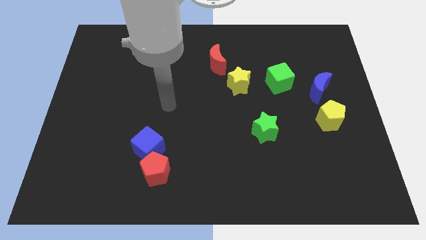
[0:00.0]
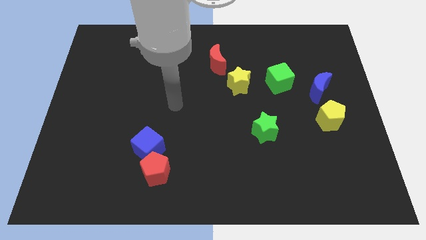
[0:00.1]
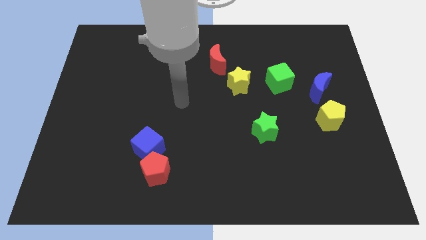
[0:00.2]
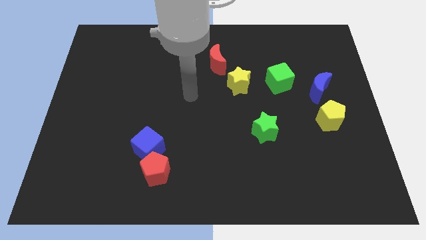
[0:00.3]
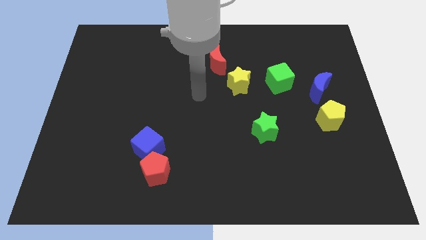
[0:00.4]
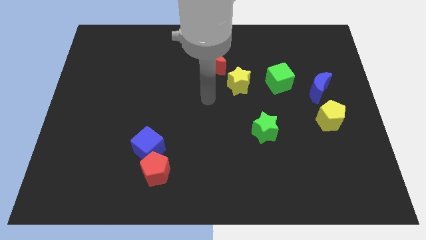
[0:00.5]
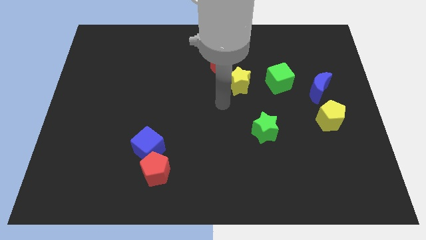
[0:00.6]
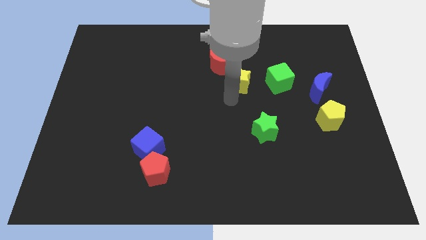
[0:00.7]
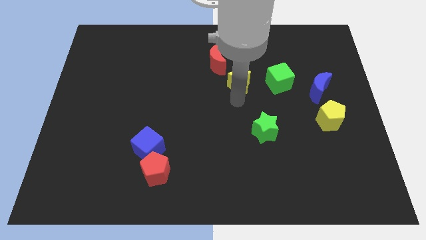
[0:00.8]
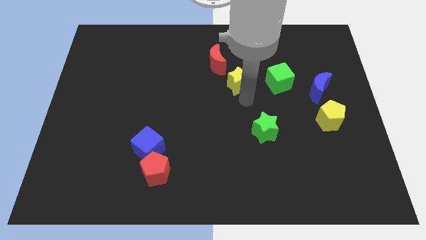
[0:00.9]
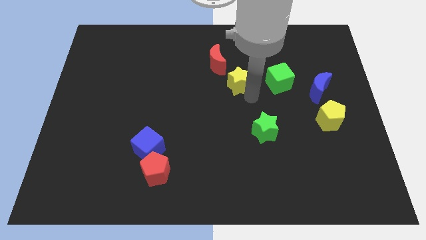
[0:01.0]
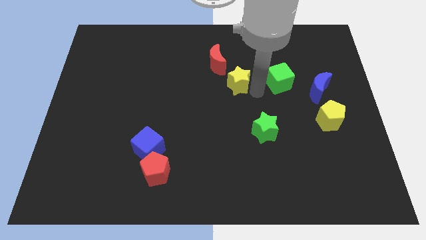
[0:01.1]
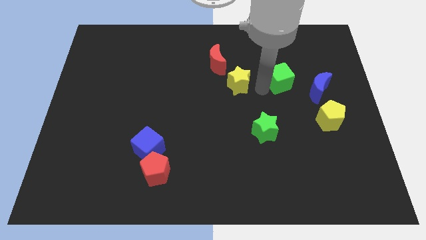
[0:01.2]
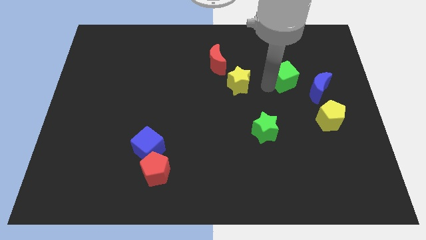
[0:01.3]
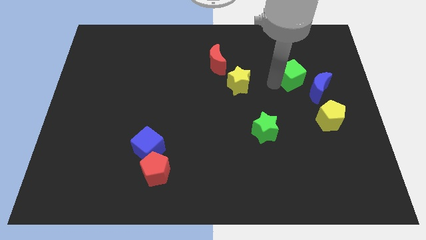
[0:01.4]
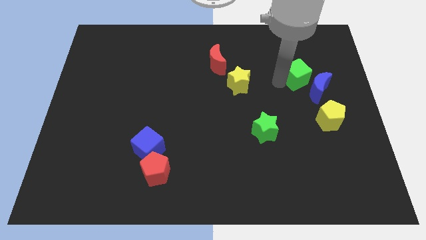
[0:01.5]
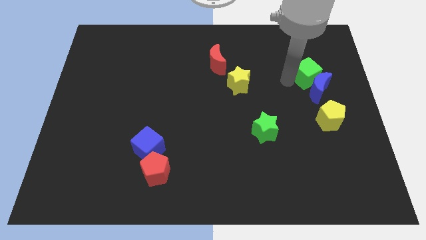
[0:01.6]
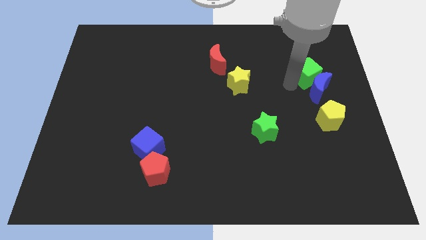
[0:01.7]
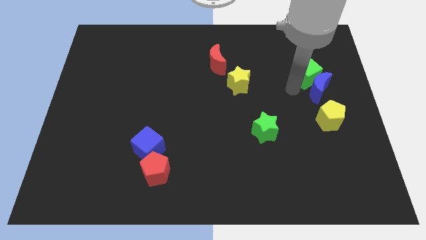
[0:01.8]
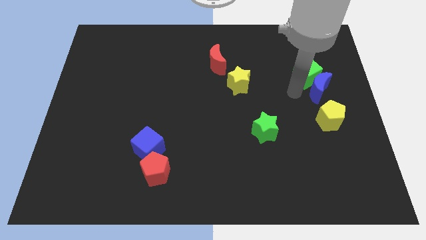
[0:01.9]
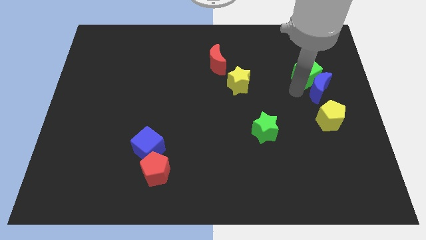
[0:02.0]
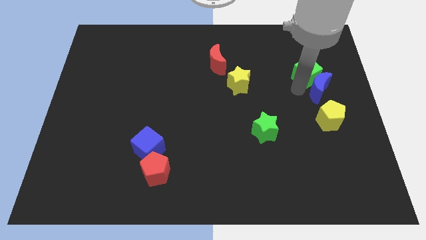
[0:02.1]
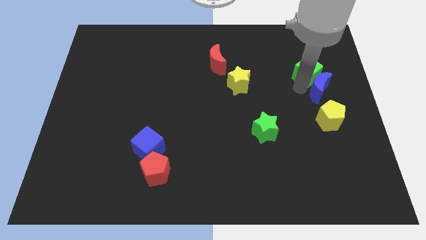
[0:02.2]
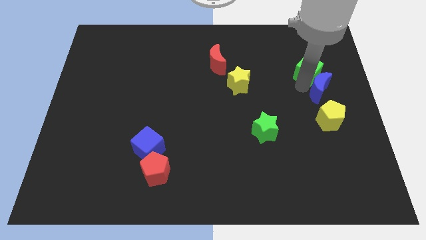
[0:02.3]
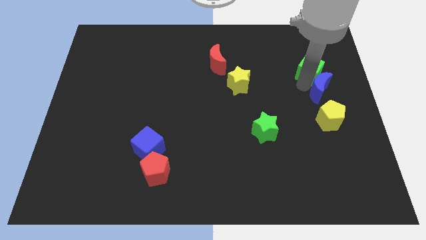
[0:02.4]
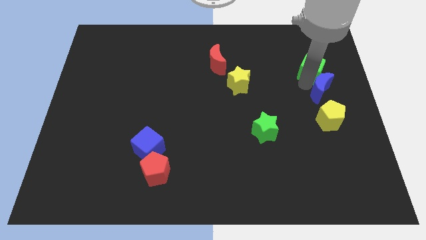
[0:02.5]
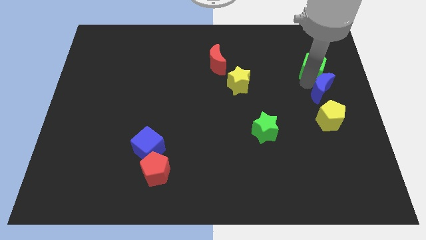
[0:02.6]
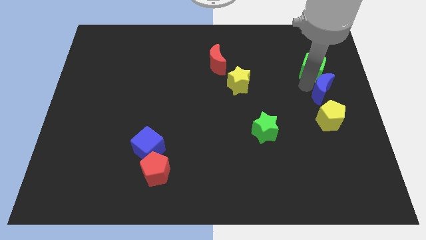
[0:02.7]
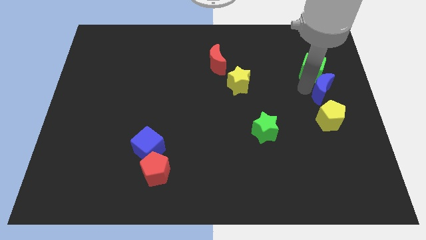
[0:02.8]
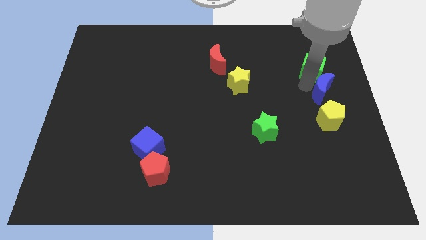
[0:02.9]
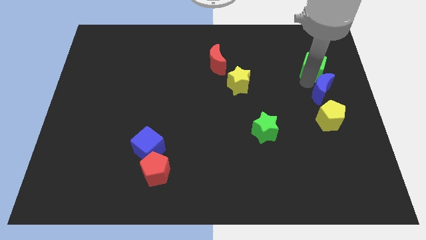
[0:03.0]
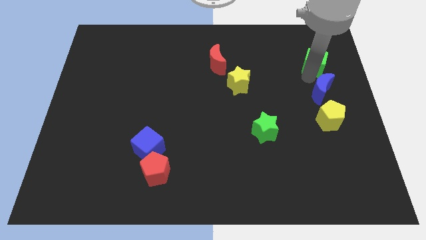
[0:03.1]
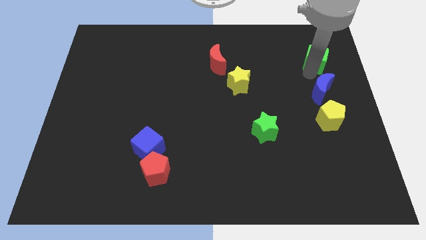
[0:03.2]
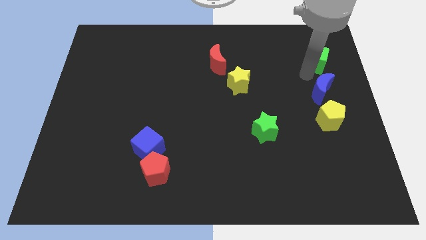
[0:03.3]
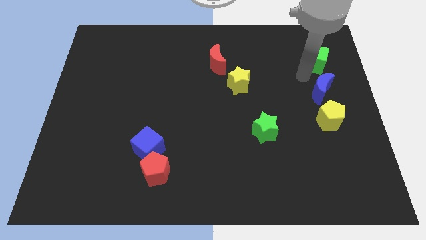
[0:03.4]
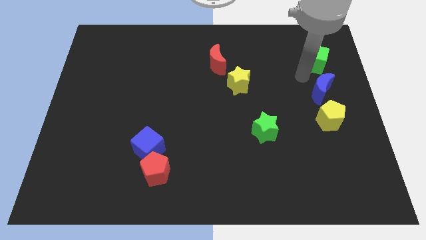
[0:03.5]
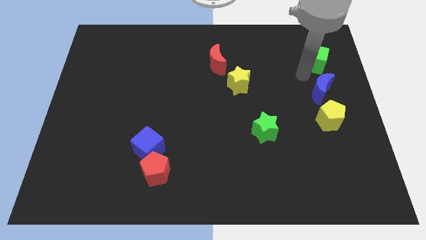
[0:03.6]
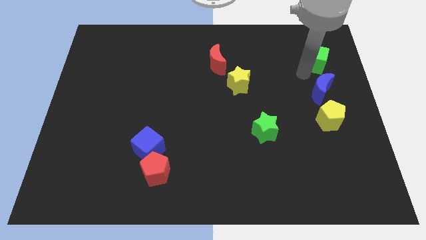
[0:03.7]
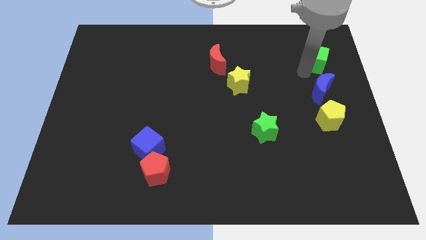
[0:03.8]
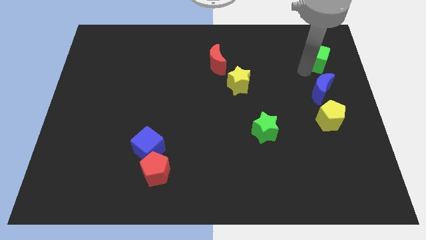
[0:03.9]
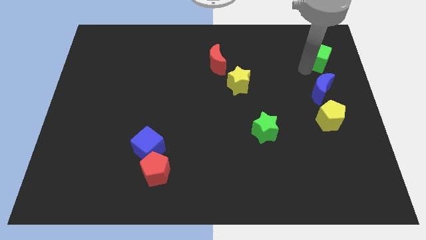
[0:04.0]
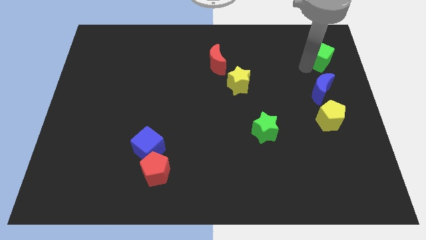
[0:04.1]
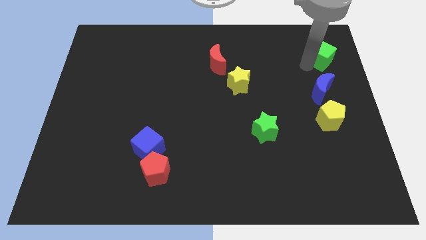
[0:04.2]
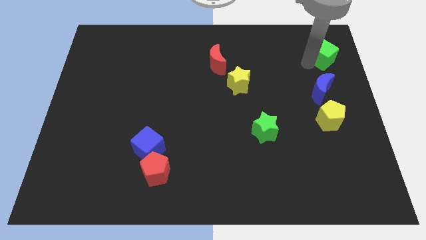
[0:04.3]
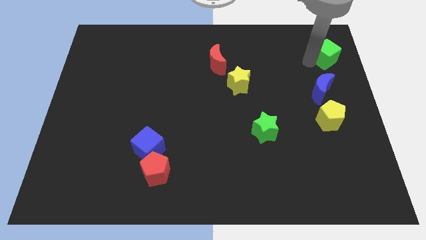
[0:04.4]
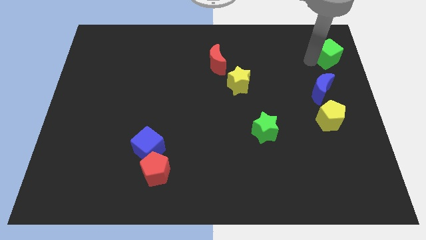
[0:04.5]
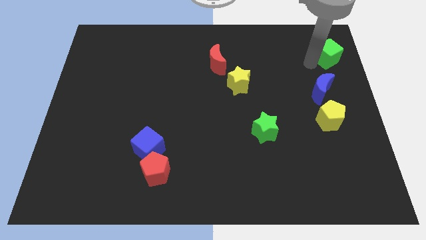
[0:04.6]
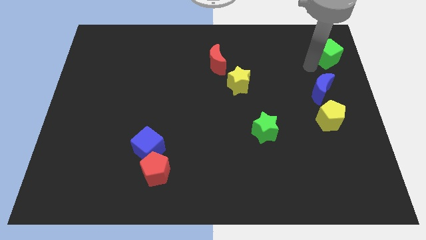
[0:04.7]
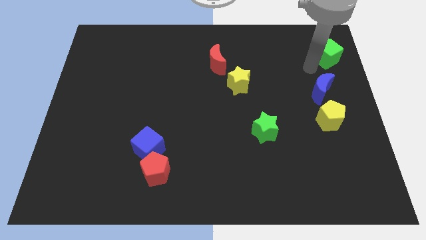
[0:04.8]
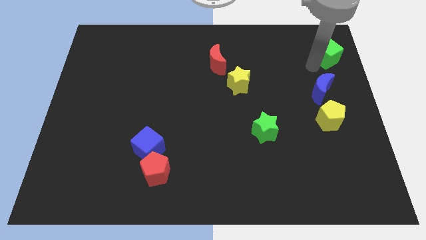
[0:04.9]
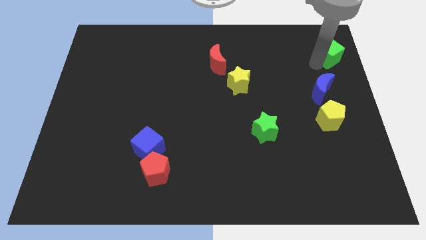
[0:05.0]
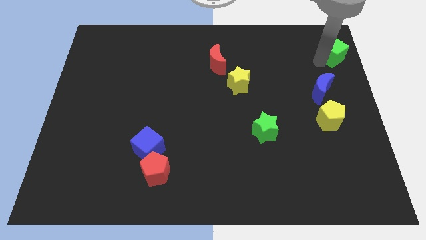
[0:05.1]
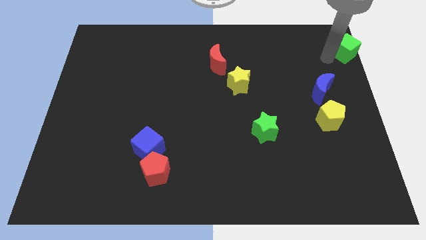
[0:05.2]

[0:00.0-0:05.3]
move the green cube to the top right

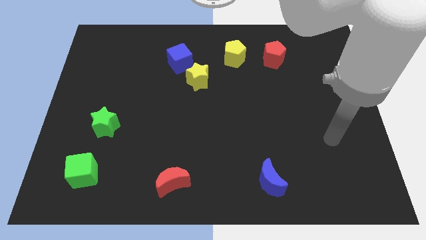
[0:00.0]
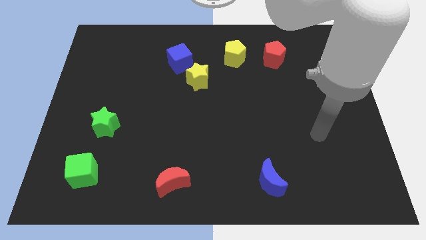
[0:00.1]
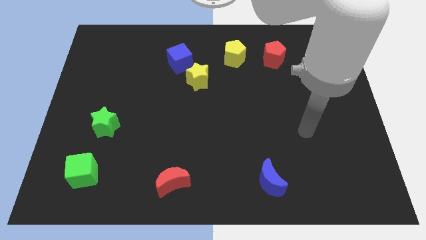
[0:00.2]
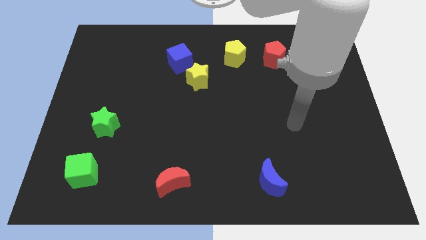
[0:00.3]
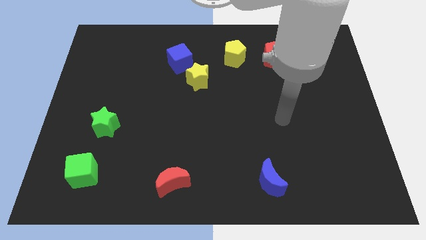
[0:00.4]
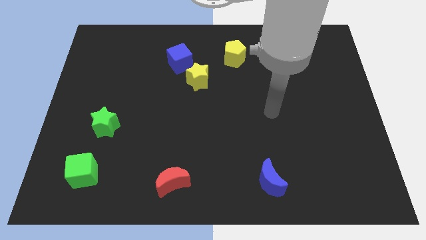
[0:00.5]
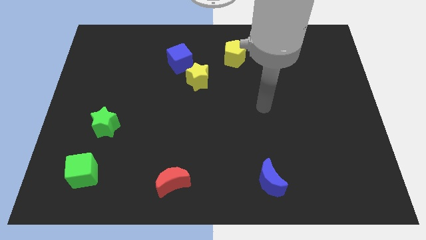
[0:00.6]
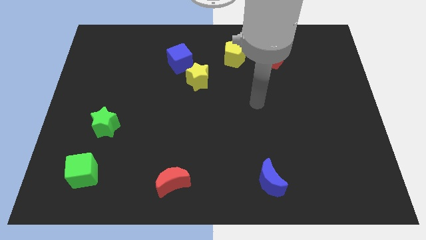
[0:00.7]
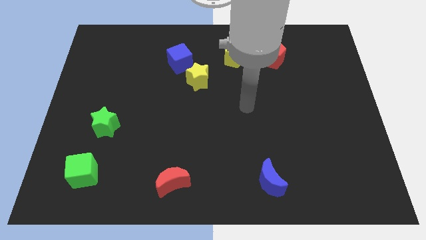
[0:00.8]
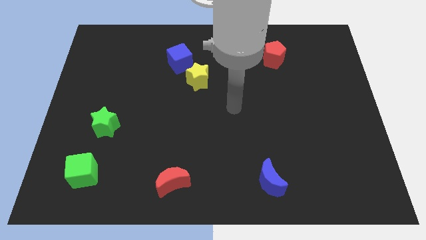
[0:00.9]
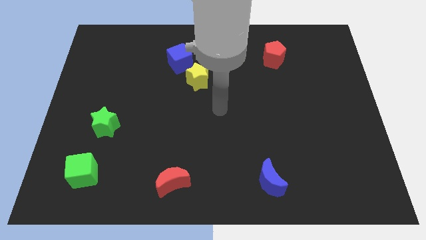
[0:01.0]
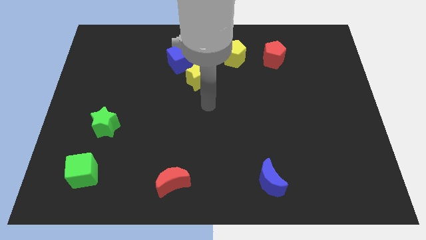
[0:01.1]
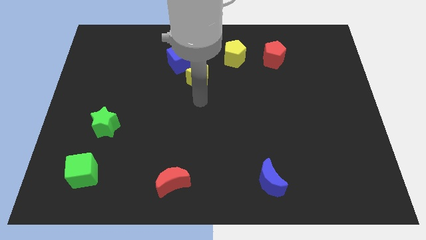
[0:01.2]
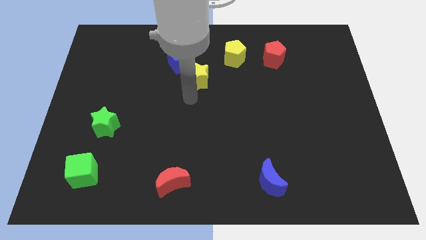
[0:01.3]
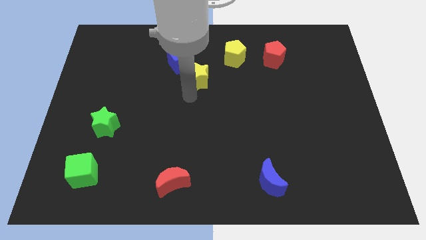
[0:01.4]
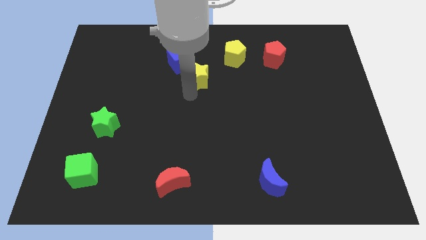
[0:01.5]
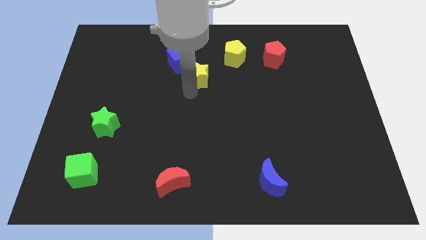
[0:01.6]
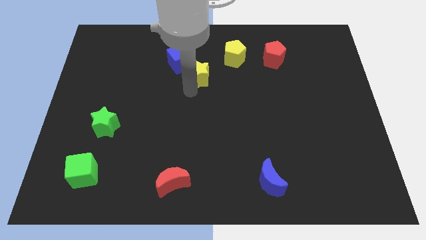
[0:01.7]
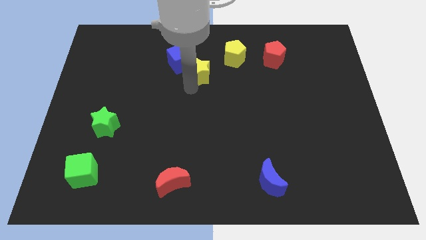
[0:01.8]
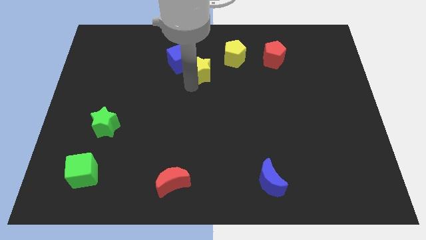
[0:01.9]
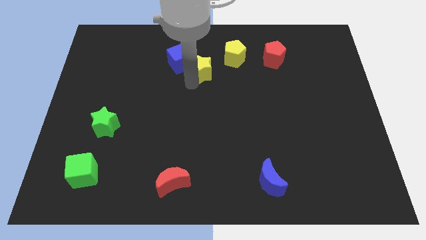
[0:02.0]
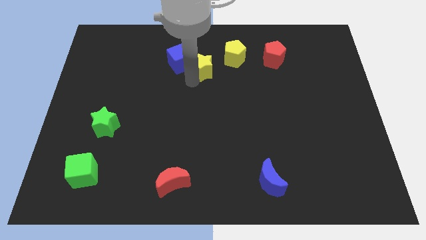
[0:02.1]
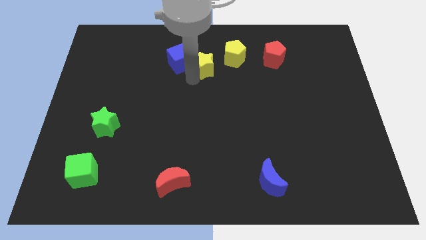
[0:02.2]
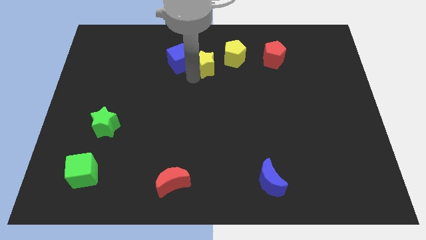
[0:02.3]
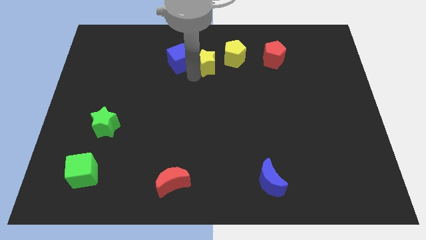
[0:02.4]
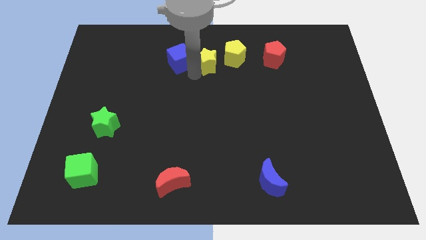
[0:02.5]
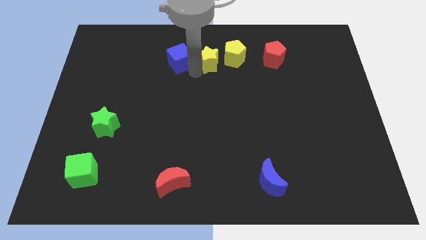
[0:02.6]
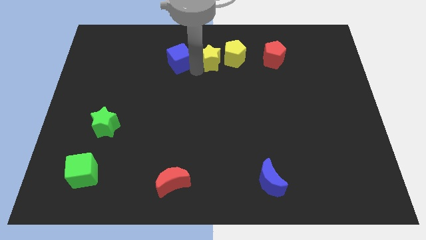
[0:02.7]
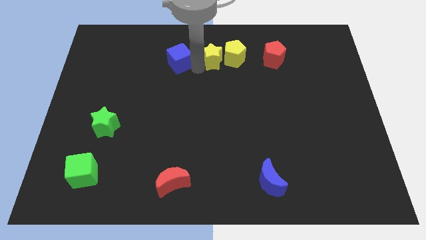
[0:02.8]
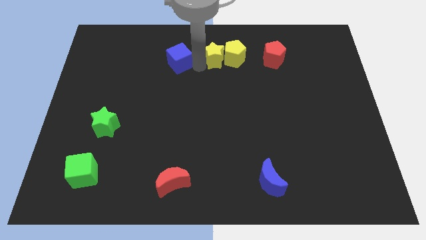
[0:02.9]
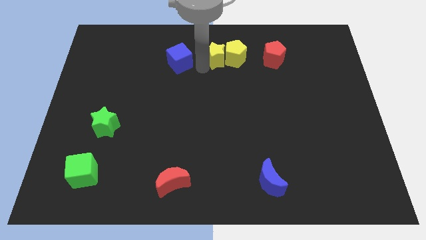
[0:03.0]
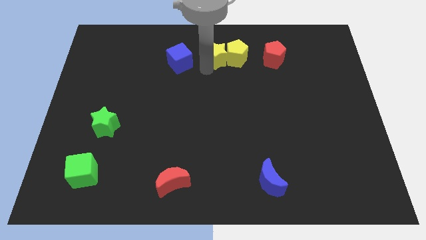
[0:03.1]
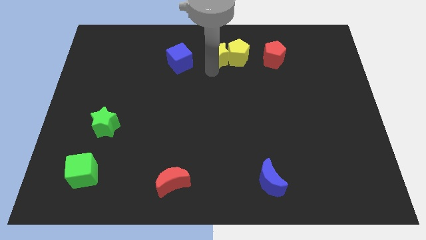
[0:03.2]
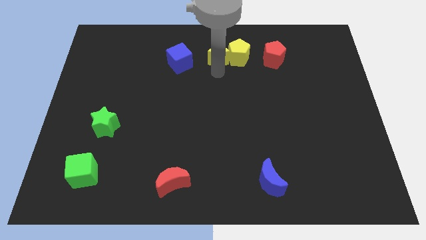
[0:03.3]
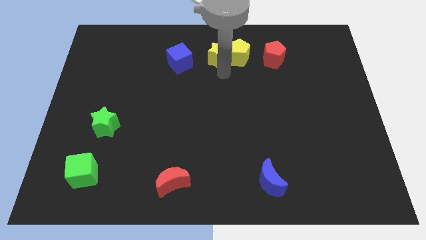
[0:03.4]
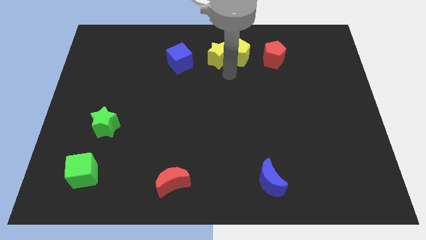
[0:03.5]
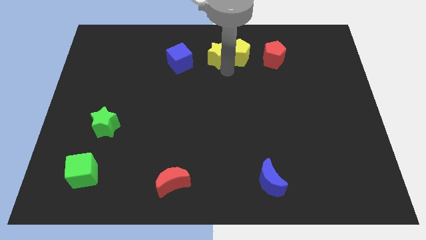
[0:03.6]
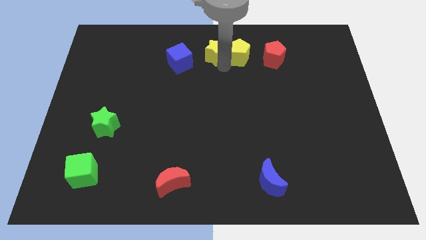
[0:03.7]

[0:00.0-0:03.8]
move the yellow star to the towards your base
